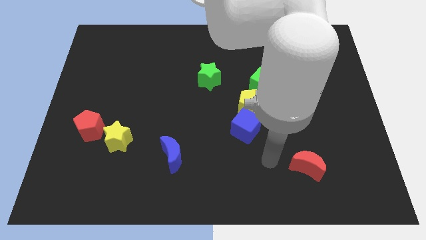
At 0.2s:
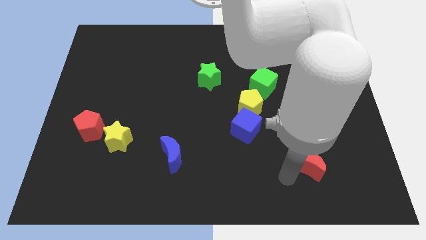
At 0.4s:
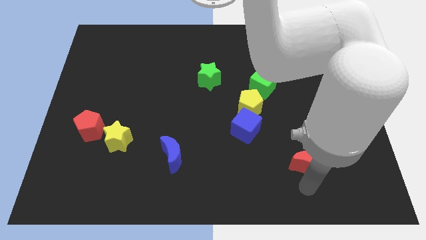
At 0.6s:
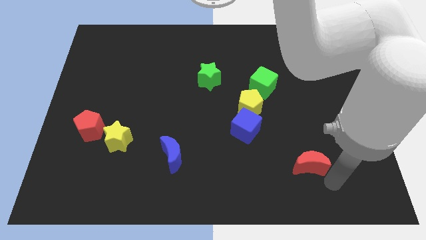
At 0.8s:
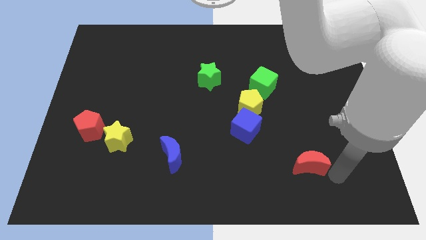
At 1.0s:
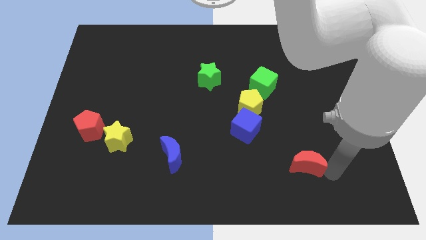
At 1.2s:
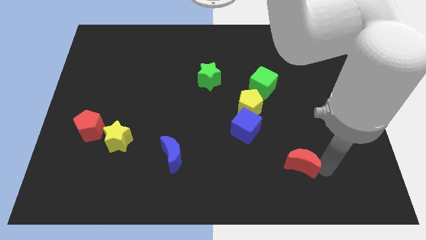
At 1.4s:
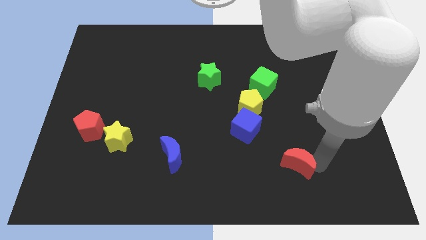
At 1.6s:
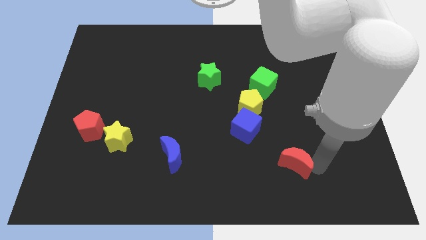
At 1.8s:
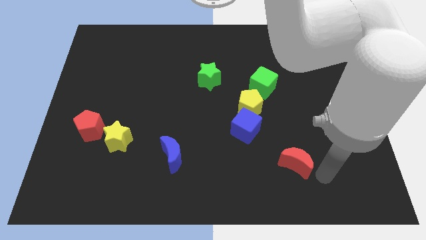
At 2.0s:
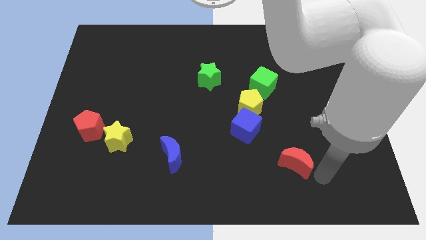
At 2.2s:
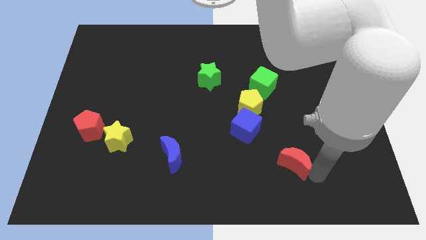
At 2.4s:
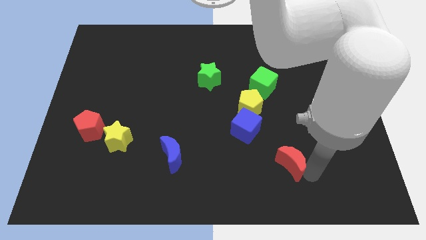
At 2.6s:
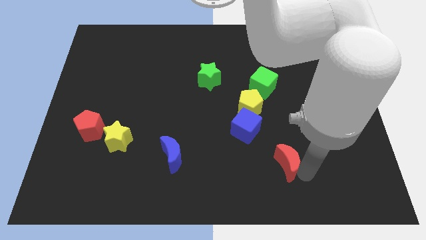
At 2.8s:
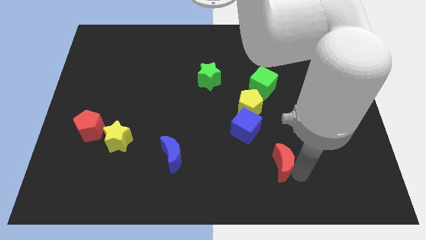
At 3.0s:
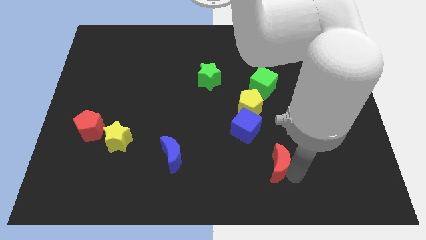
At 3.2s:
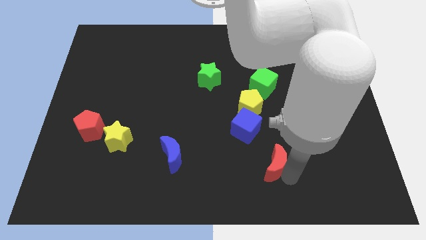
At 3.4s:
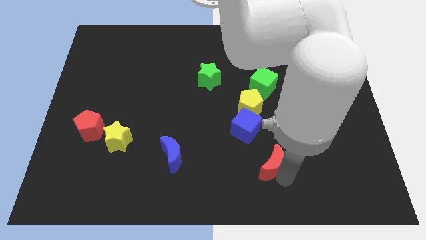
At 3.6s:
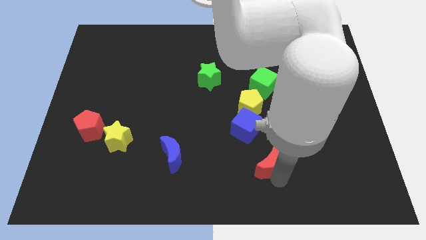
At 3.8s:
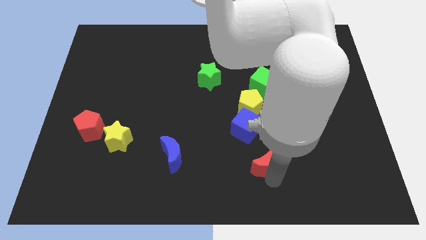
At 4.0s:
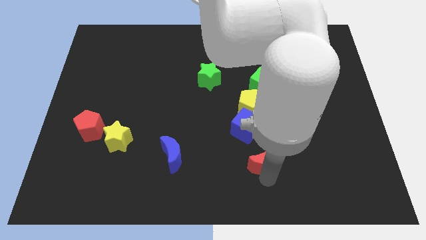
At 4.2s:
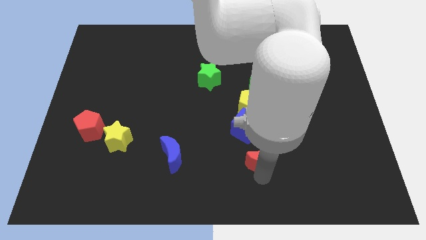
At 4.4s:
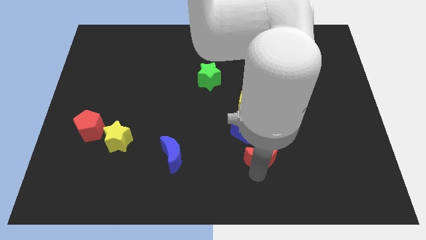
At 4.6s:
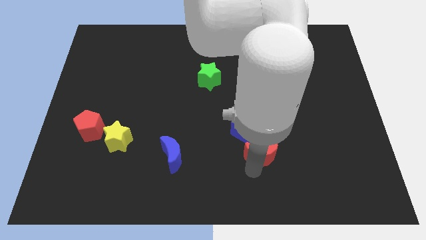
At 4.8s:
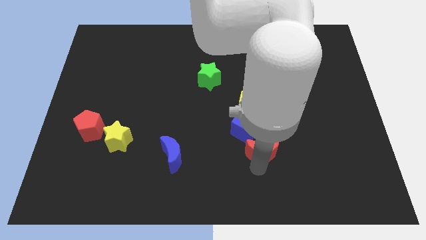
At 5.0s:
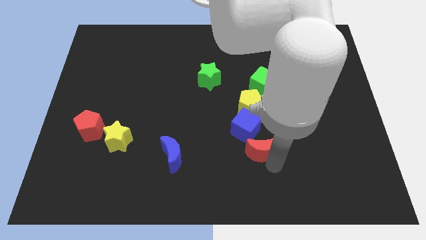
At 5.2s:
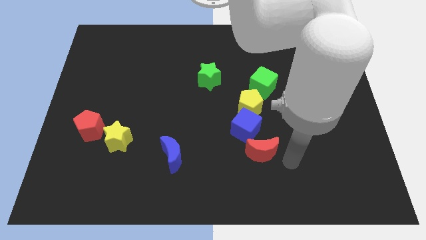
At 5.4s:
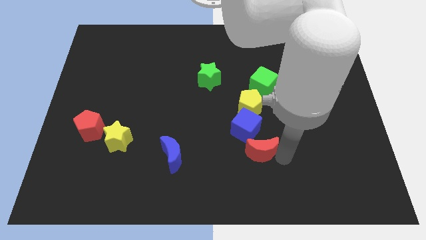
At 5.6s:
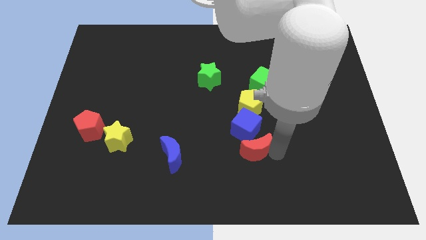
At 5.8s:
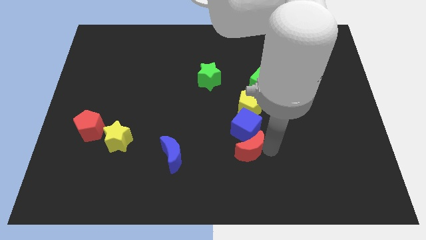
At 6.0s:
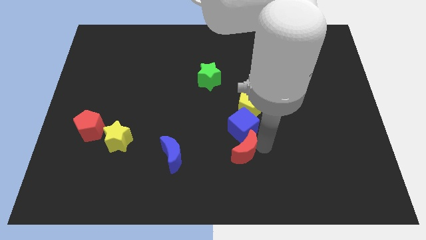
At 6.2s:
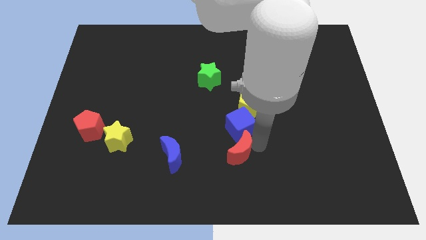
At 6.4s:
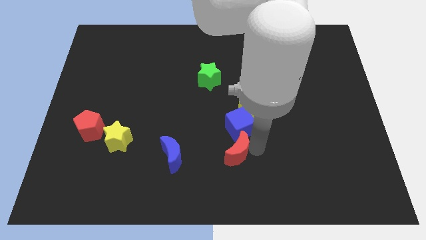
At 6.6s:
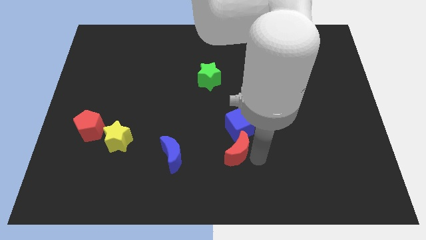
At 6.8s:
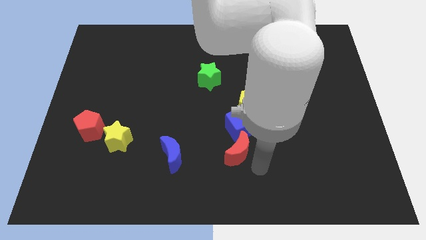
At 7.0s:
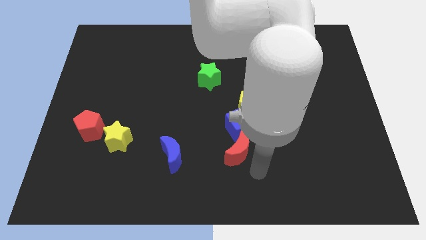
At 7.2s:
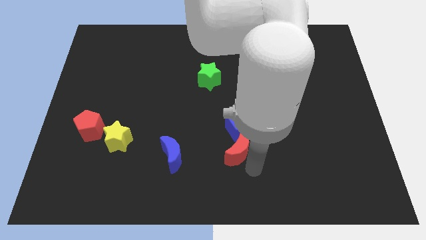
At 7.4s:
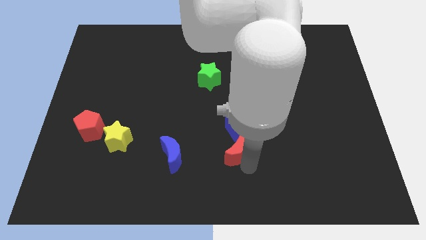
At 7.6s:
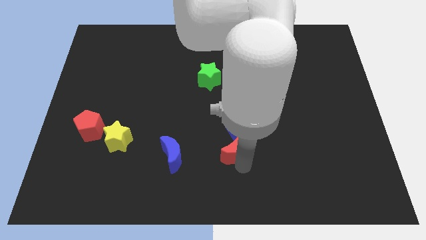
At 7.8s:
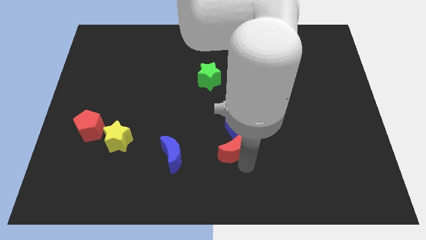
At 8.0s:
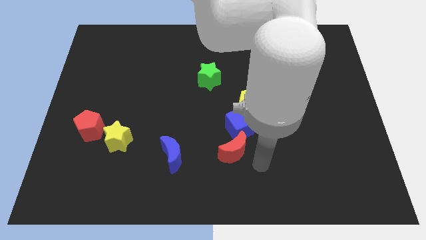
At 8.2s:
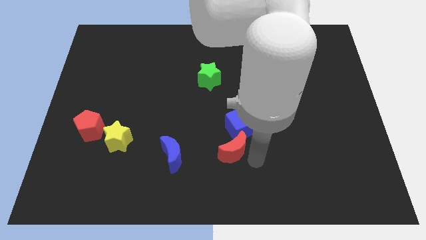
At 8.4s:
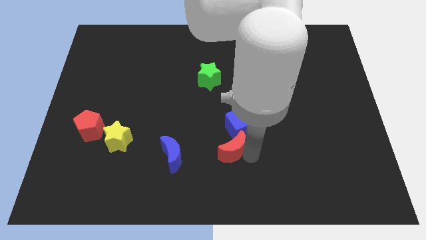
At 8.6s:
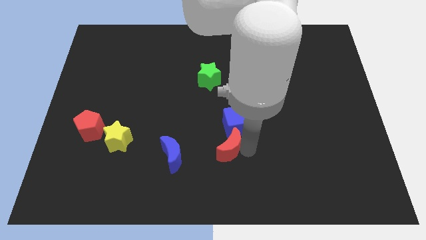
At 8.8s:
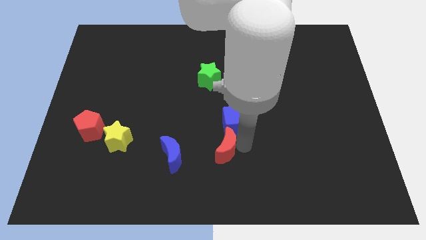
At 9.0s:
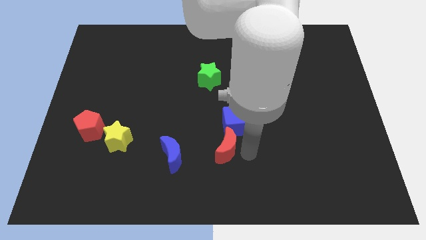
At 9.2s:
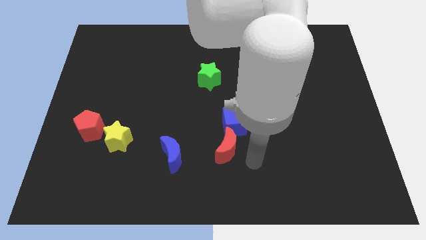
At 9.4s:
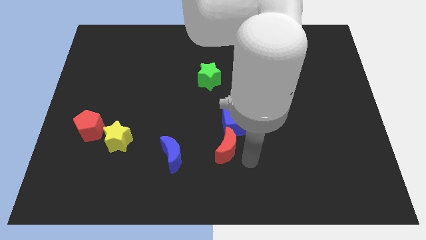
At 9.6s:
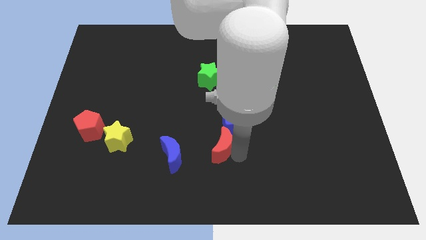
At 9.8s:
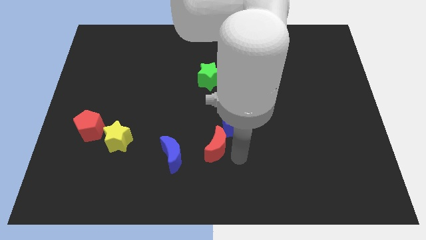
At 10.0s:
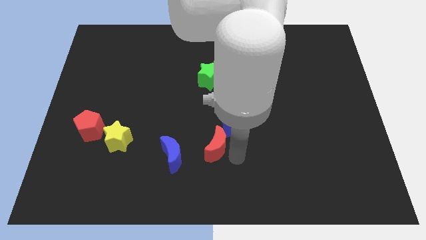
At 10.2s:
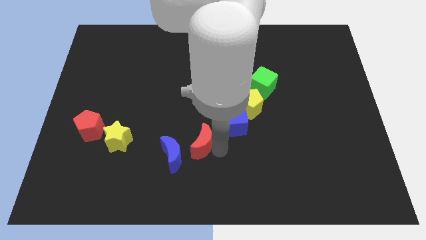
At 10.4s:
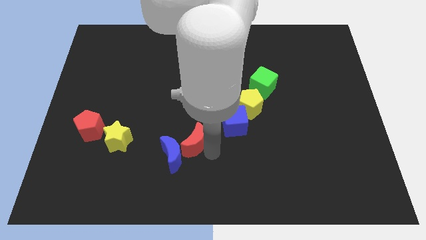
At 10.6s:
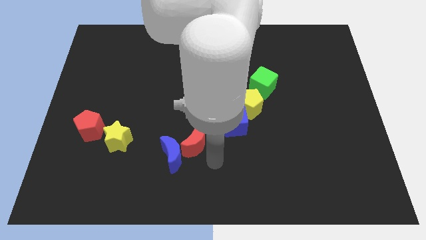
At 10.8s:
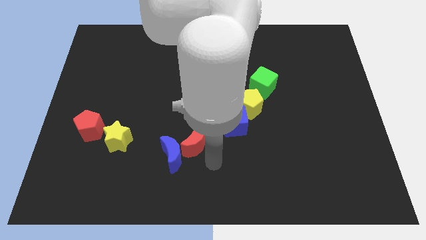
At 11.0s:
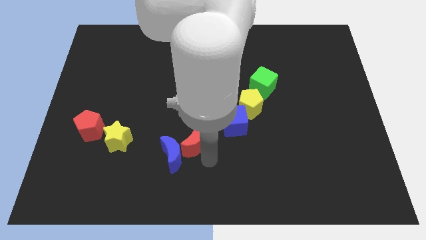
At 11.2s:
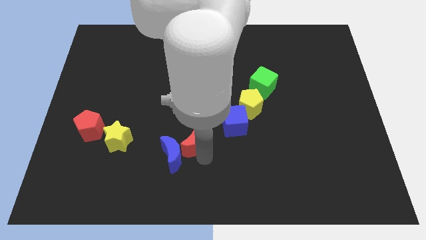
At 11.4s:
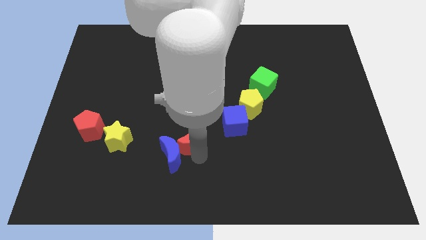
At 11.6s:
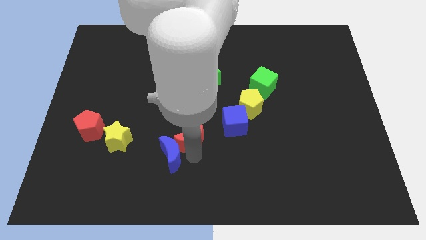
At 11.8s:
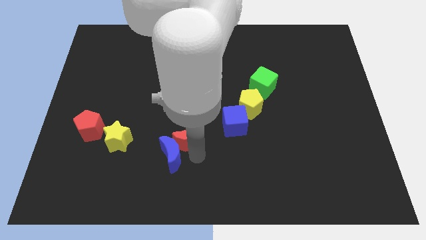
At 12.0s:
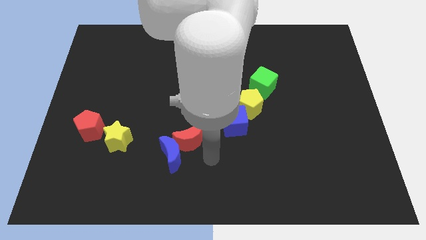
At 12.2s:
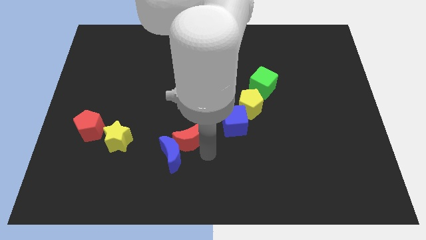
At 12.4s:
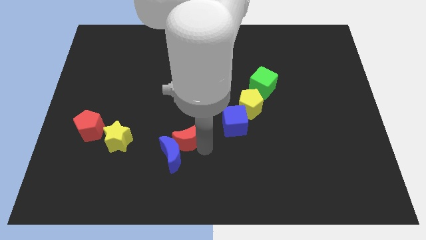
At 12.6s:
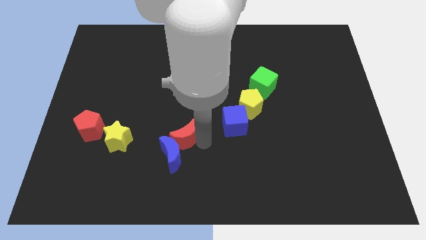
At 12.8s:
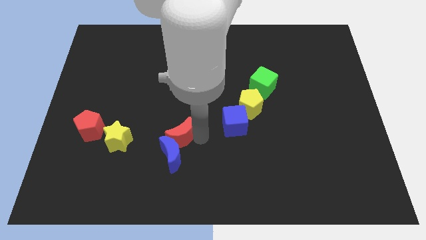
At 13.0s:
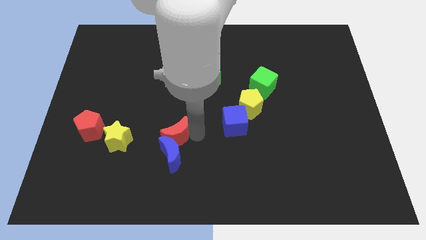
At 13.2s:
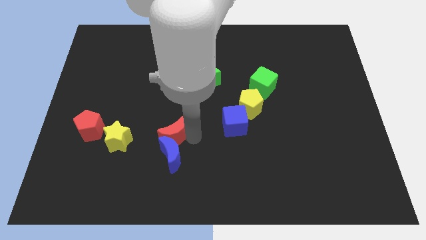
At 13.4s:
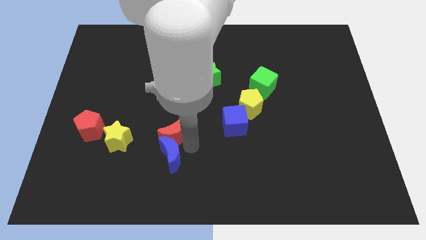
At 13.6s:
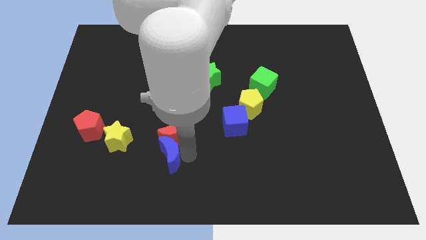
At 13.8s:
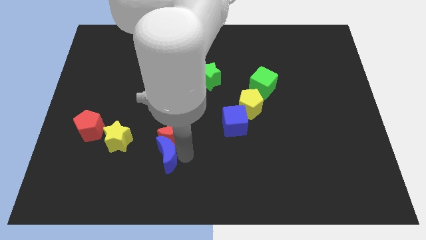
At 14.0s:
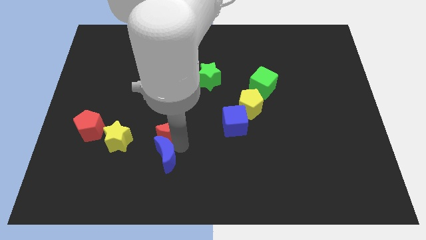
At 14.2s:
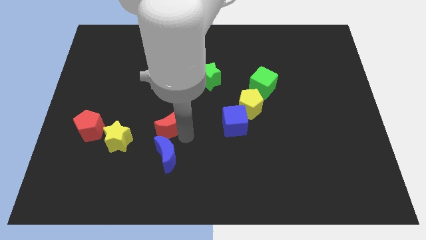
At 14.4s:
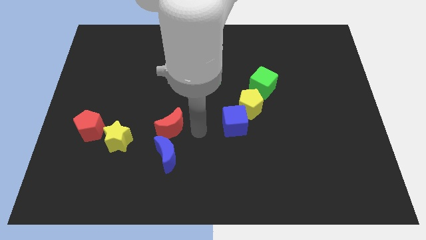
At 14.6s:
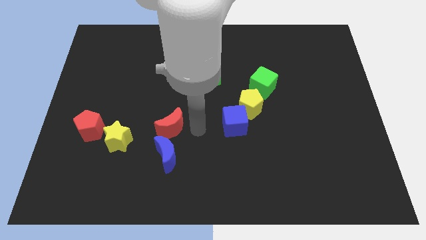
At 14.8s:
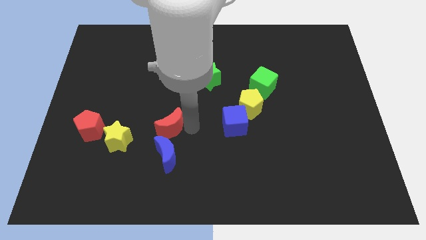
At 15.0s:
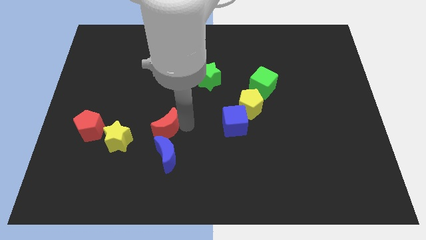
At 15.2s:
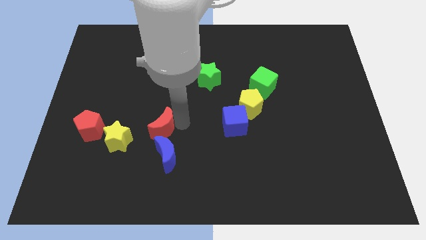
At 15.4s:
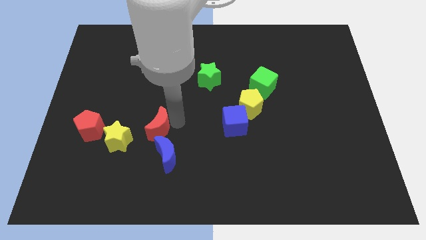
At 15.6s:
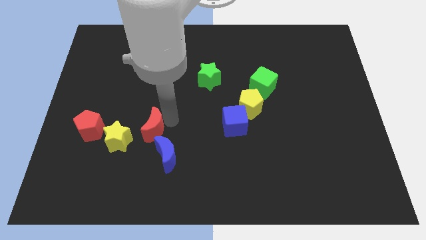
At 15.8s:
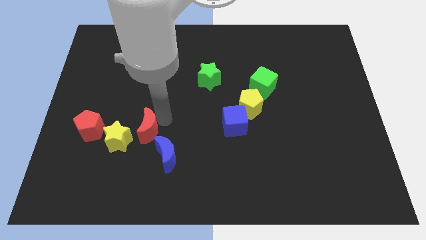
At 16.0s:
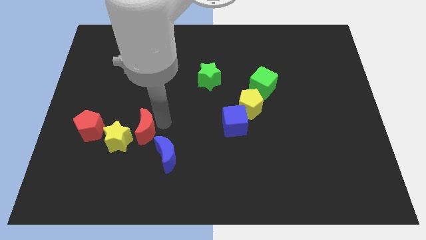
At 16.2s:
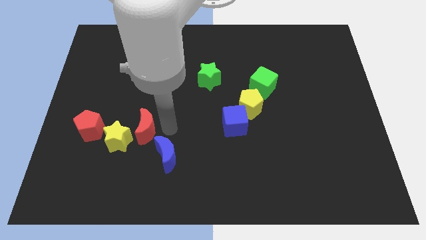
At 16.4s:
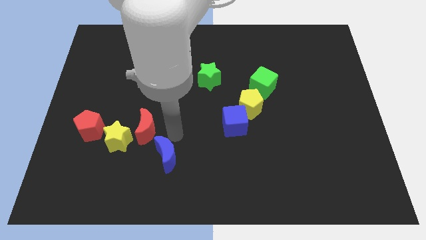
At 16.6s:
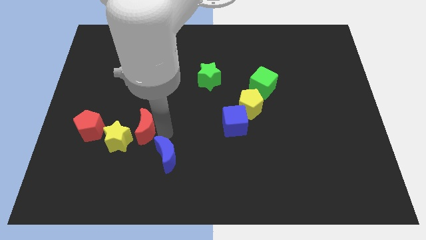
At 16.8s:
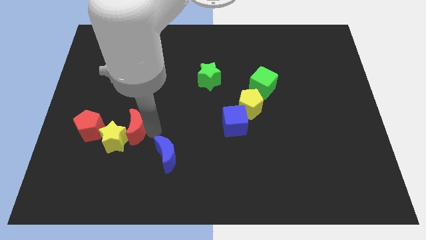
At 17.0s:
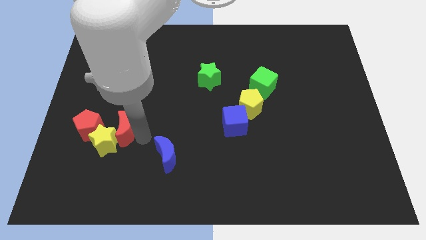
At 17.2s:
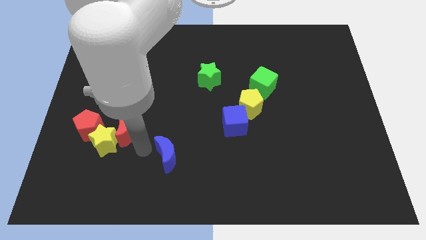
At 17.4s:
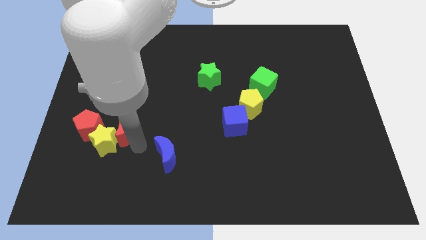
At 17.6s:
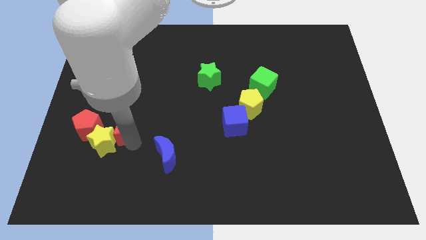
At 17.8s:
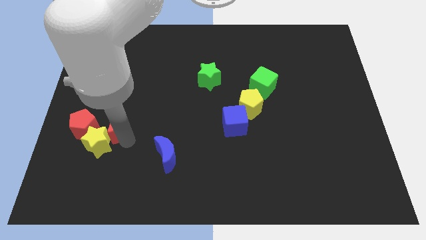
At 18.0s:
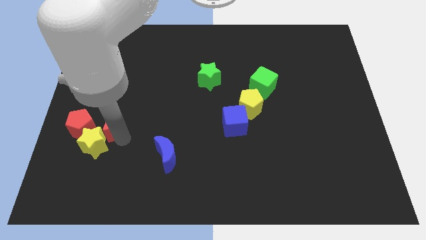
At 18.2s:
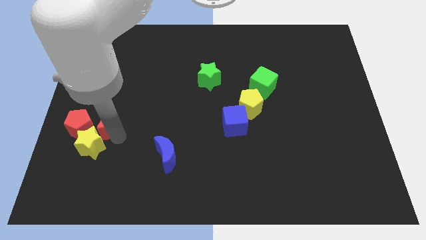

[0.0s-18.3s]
slide the red moon close to the red pentagon
